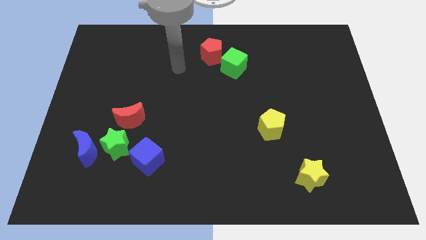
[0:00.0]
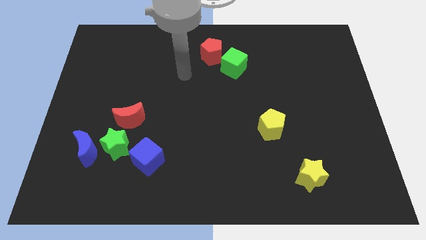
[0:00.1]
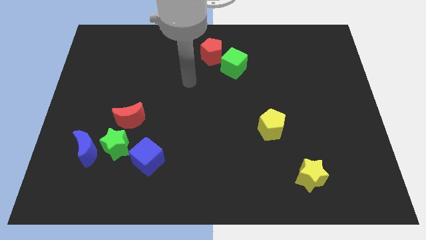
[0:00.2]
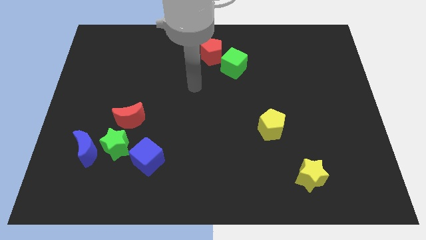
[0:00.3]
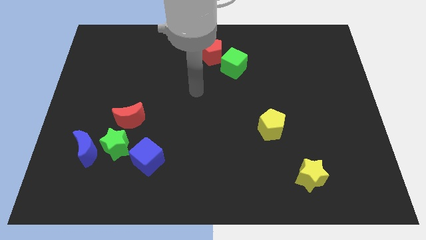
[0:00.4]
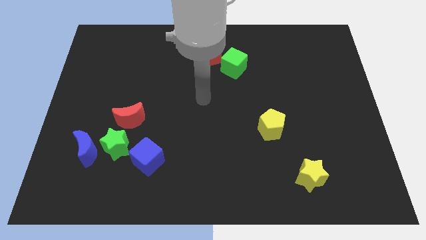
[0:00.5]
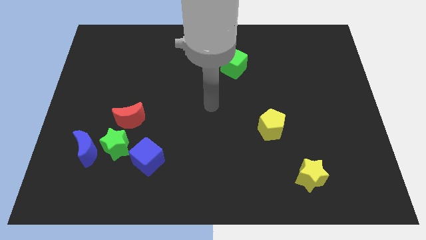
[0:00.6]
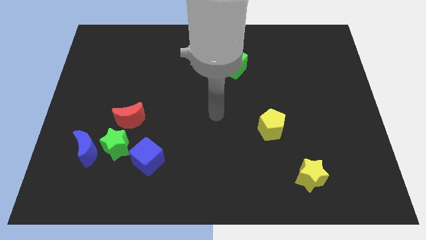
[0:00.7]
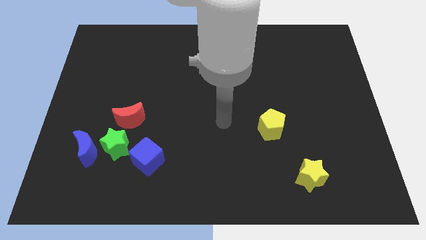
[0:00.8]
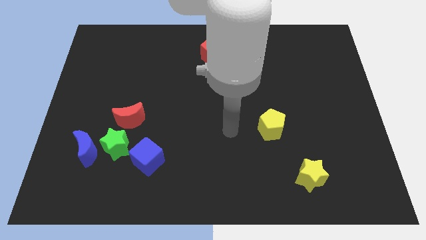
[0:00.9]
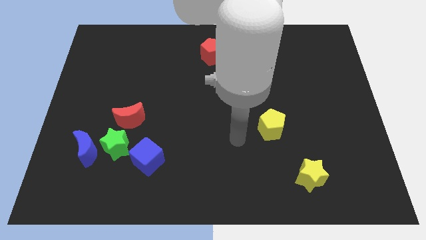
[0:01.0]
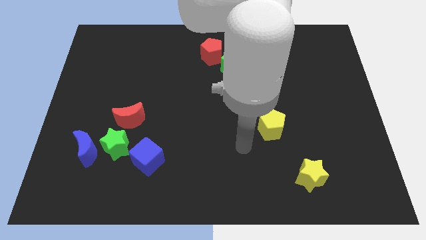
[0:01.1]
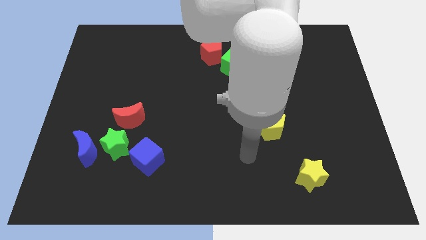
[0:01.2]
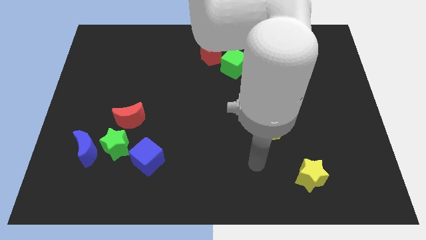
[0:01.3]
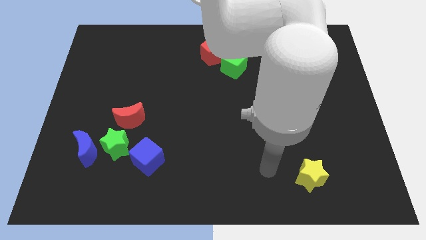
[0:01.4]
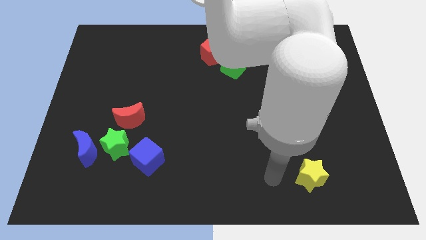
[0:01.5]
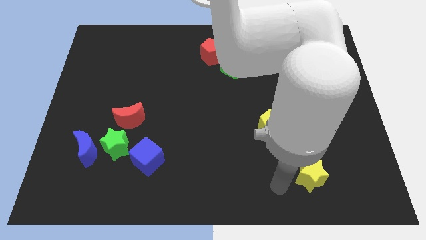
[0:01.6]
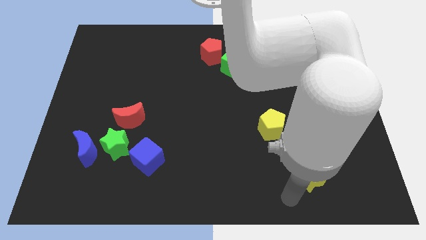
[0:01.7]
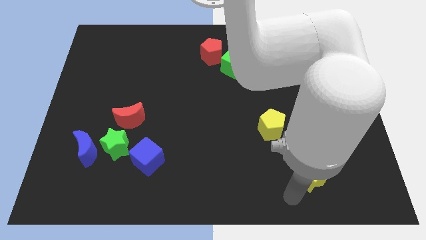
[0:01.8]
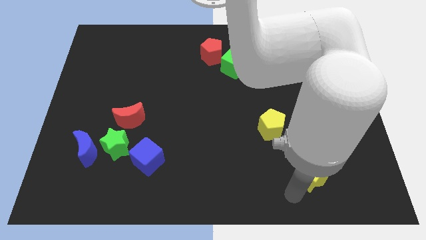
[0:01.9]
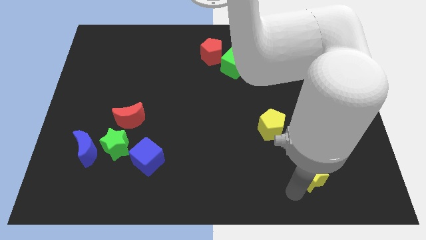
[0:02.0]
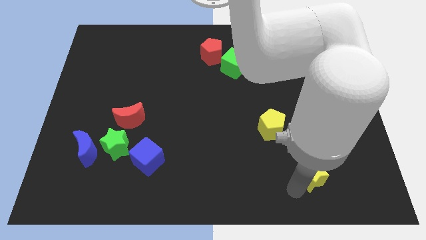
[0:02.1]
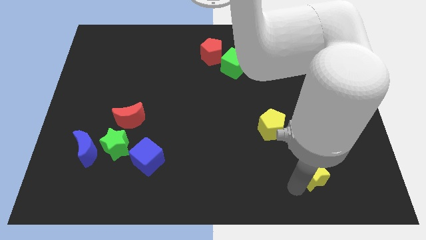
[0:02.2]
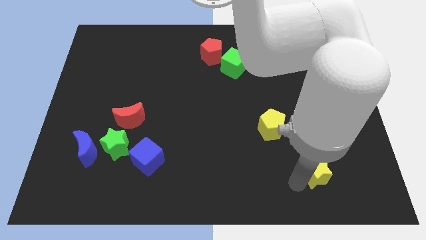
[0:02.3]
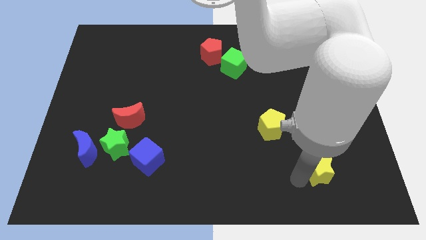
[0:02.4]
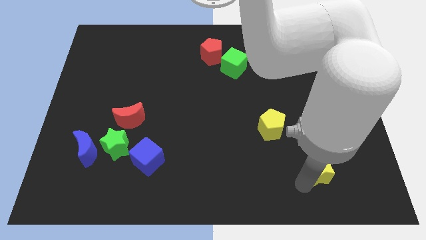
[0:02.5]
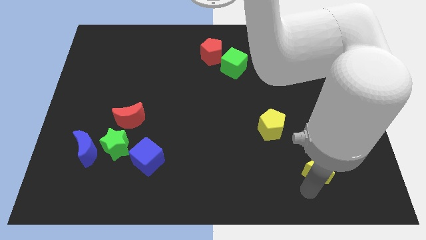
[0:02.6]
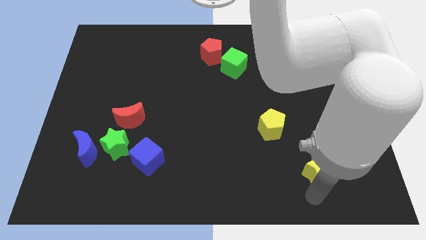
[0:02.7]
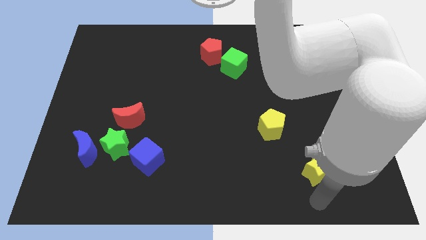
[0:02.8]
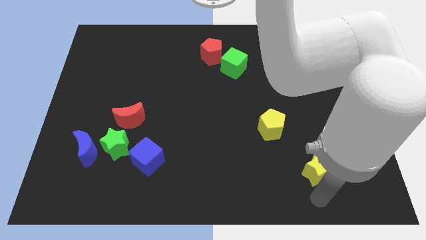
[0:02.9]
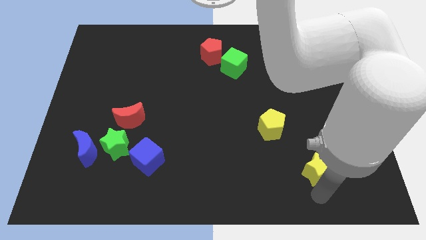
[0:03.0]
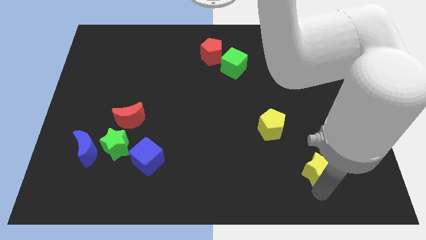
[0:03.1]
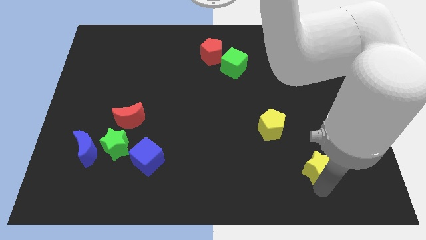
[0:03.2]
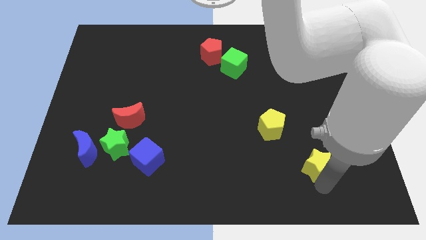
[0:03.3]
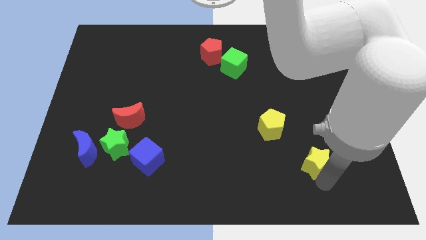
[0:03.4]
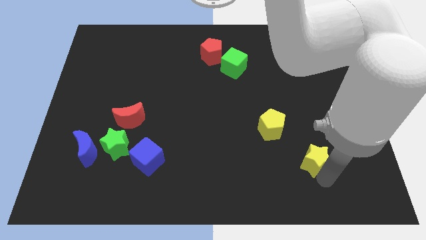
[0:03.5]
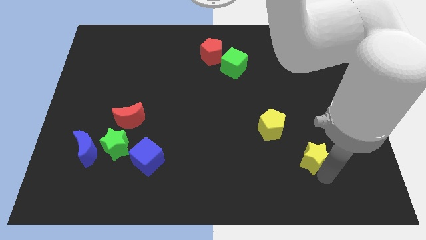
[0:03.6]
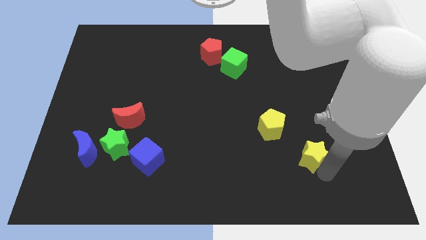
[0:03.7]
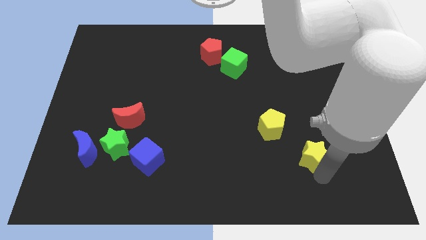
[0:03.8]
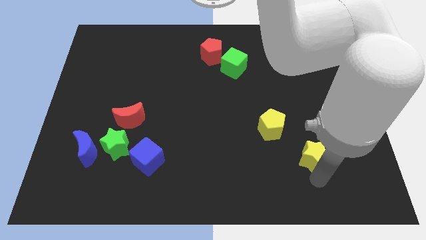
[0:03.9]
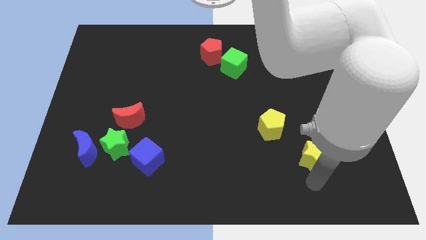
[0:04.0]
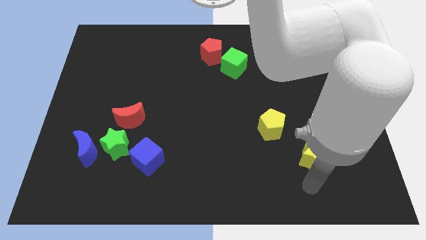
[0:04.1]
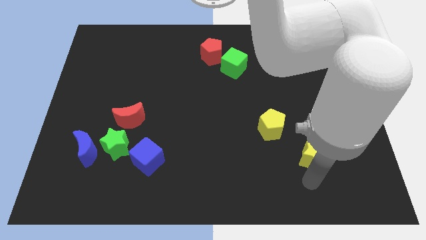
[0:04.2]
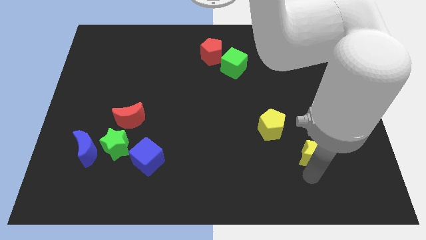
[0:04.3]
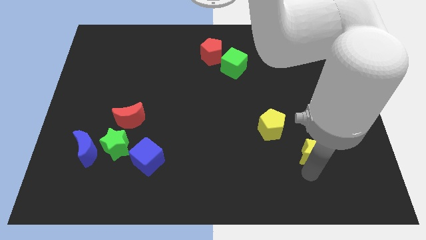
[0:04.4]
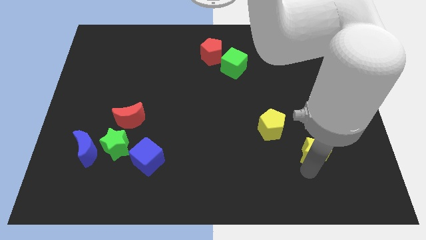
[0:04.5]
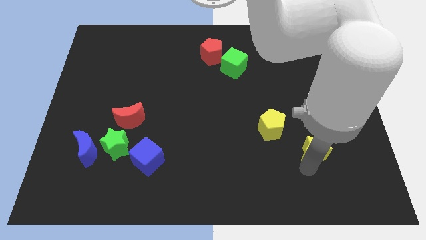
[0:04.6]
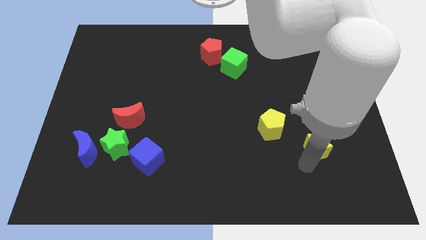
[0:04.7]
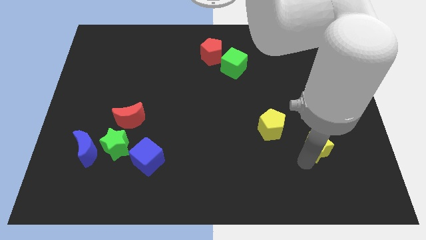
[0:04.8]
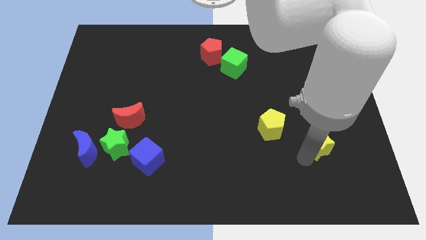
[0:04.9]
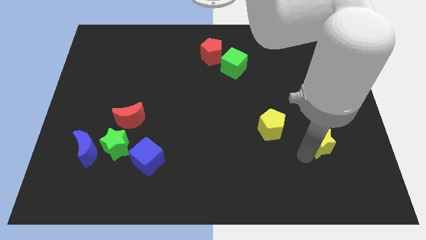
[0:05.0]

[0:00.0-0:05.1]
move the yellow star just right of the yellow pentagon

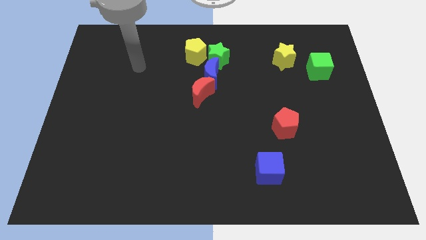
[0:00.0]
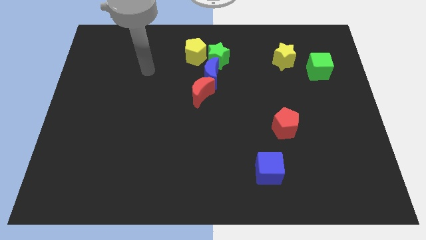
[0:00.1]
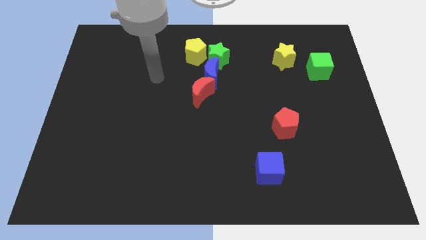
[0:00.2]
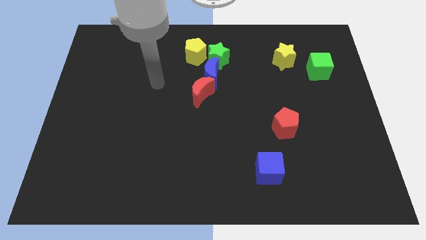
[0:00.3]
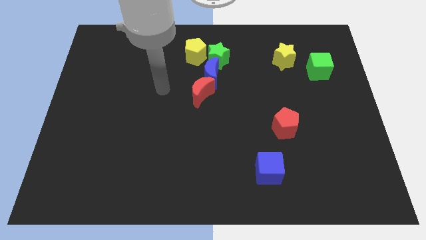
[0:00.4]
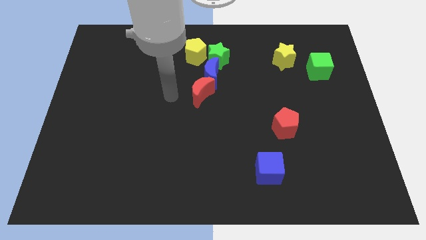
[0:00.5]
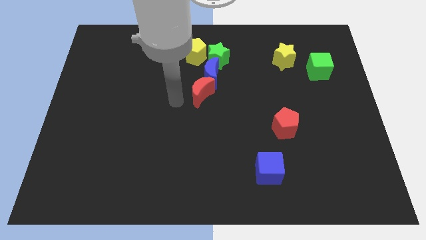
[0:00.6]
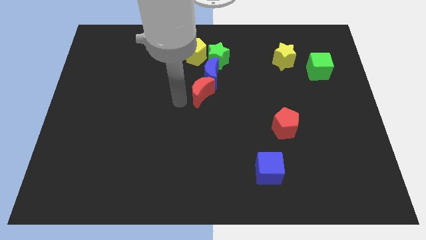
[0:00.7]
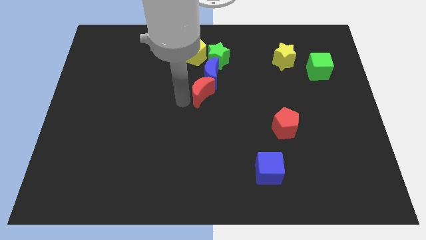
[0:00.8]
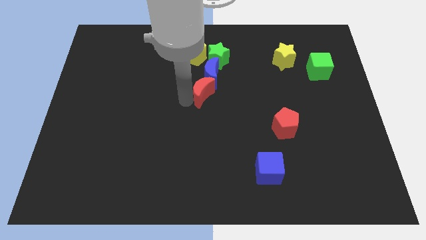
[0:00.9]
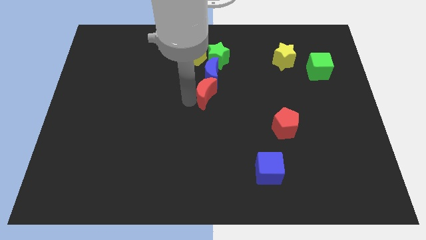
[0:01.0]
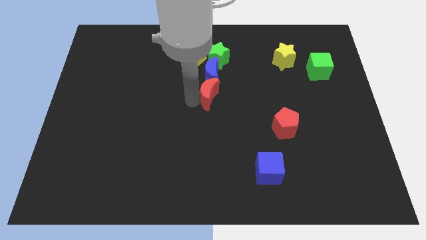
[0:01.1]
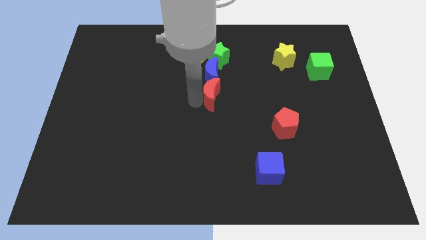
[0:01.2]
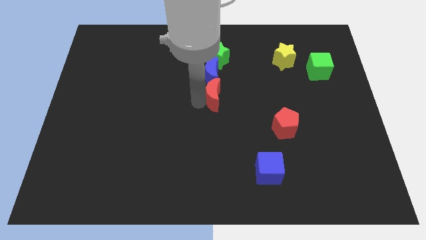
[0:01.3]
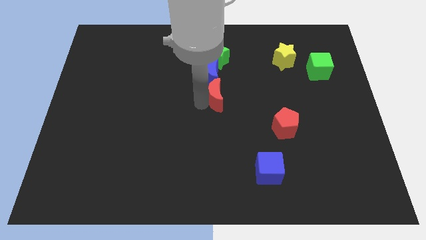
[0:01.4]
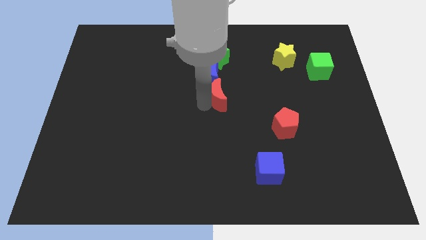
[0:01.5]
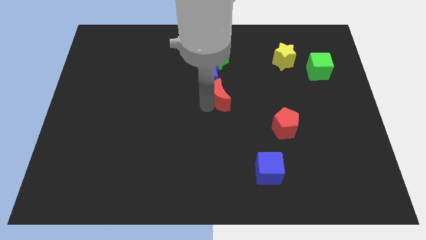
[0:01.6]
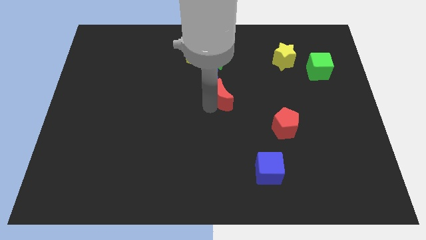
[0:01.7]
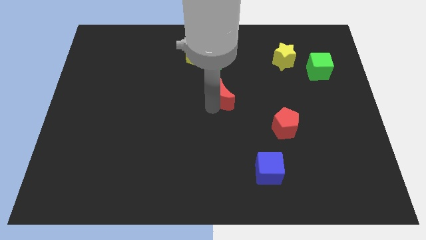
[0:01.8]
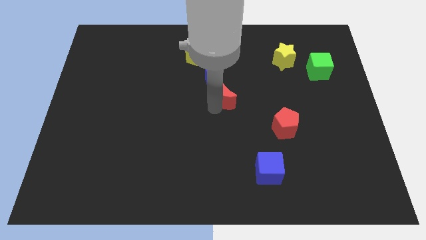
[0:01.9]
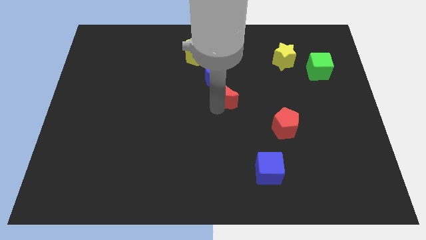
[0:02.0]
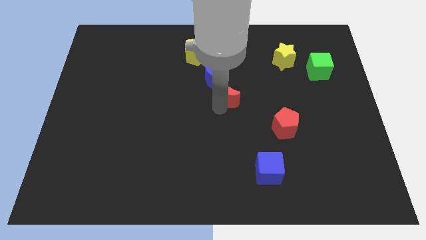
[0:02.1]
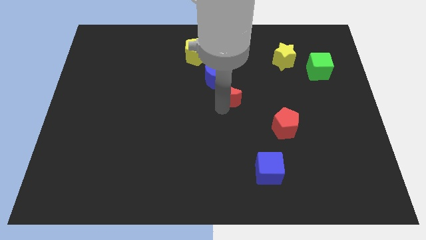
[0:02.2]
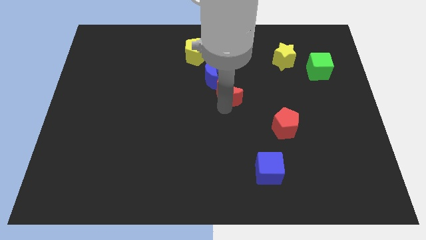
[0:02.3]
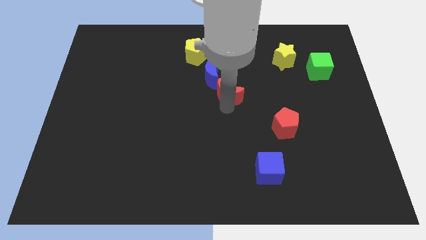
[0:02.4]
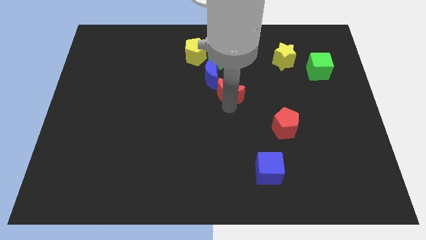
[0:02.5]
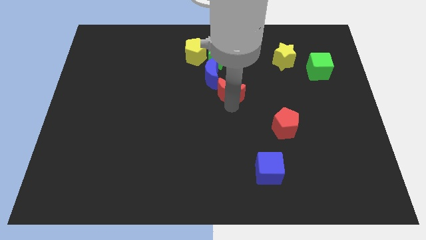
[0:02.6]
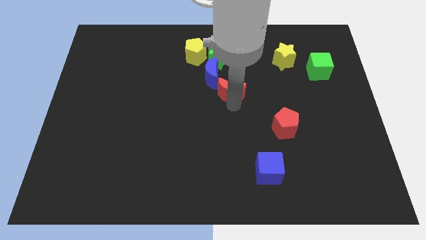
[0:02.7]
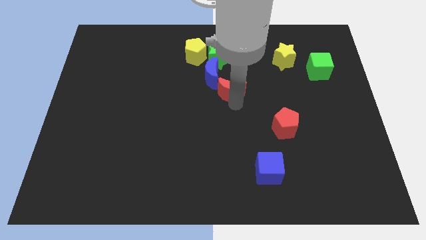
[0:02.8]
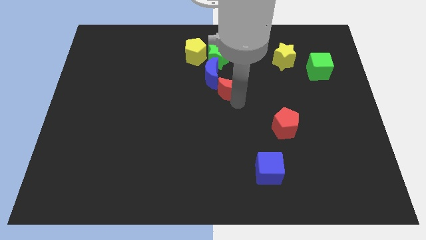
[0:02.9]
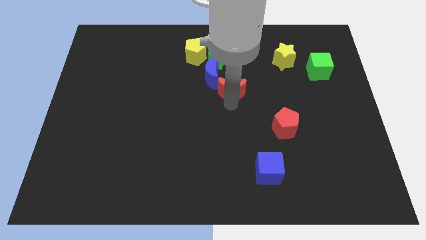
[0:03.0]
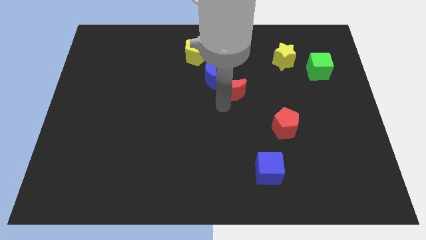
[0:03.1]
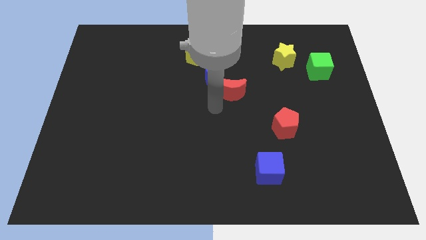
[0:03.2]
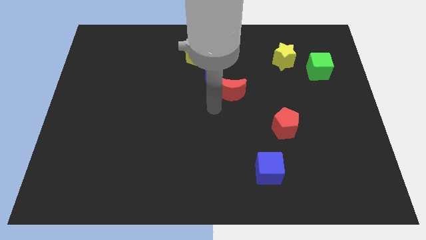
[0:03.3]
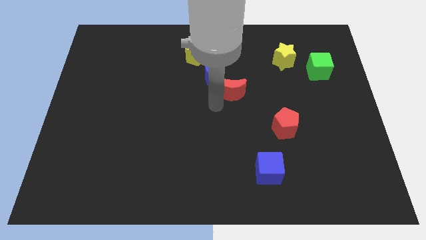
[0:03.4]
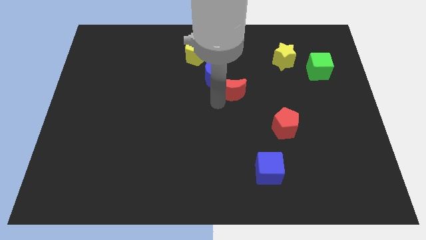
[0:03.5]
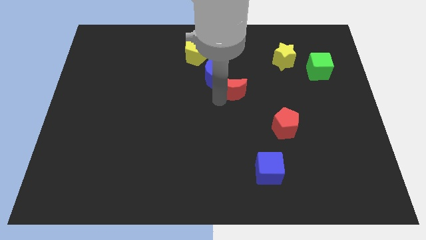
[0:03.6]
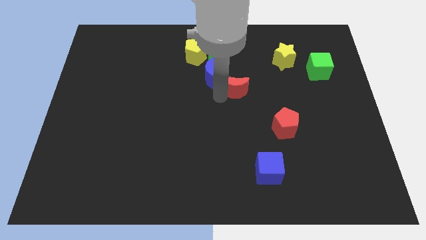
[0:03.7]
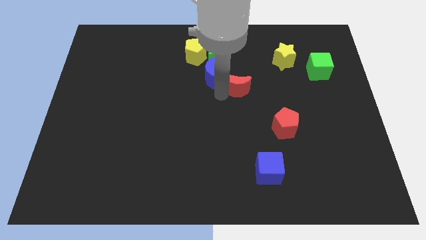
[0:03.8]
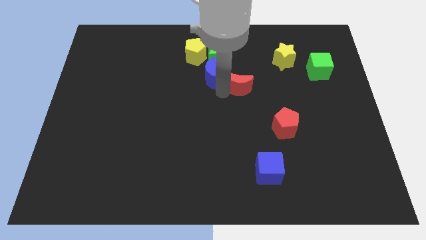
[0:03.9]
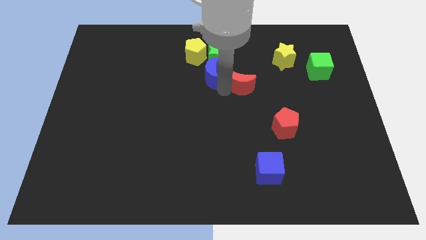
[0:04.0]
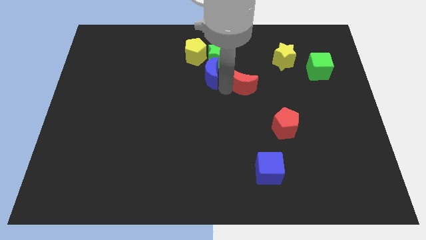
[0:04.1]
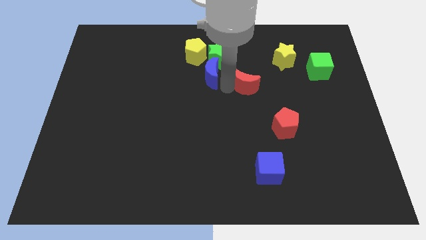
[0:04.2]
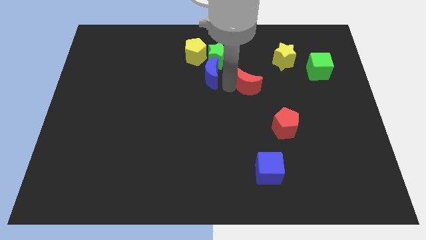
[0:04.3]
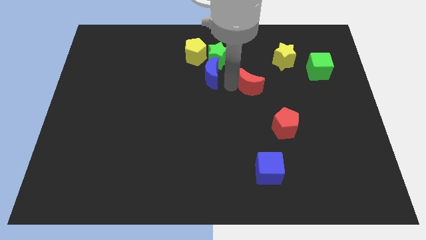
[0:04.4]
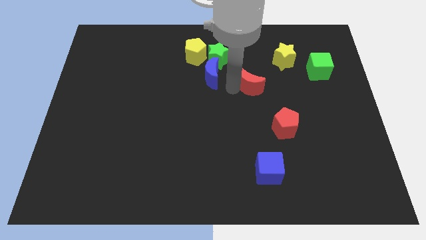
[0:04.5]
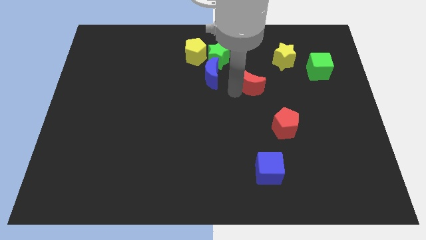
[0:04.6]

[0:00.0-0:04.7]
push the red moon to the bottom left side of the yellow star
